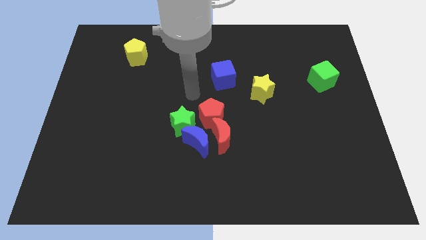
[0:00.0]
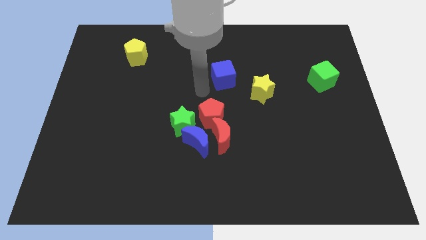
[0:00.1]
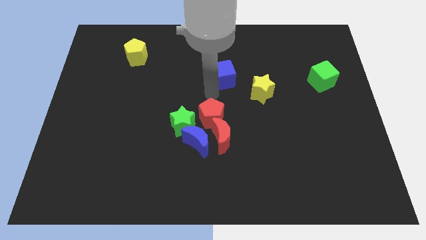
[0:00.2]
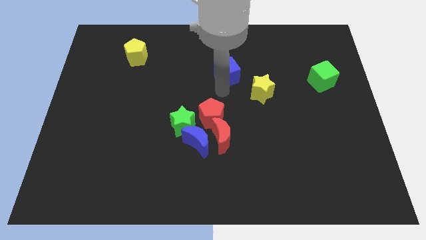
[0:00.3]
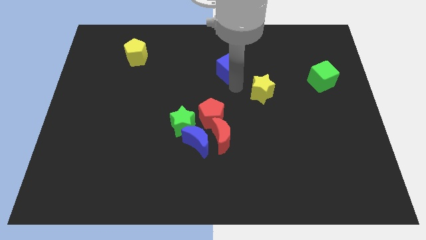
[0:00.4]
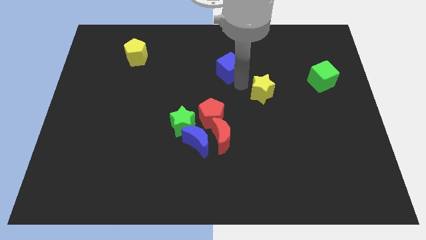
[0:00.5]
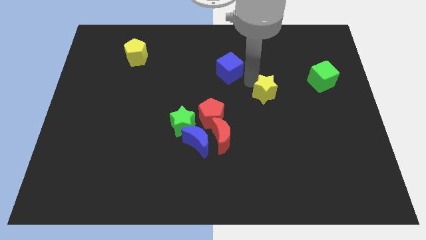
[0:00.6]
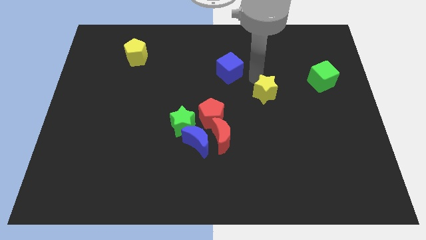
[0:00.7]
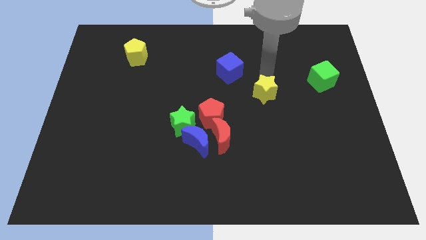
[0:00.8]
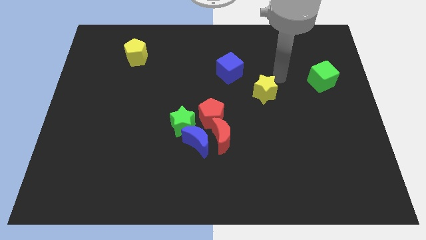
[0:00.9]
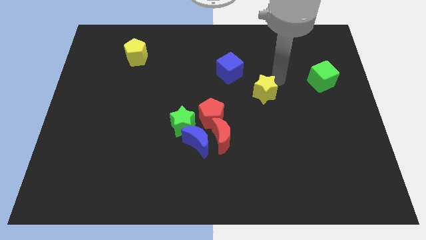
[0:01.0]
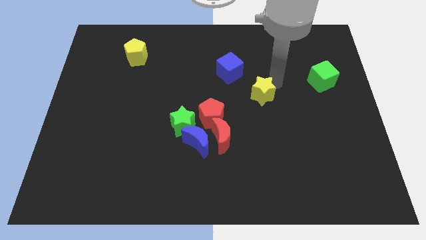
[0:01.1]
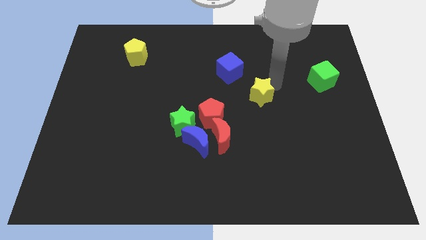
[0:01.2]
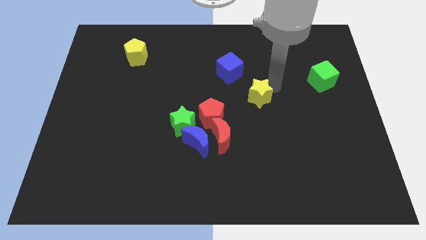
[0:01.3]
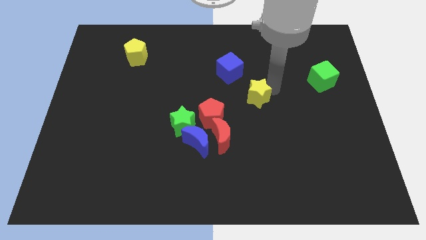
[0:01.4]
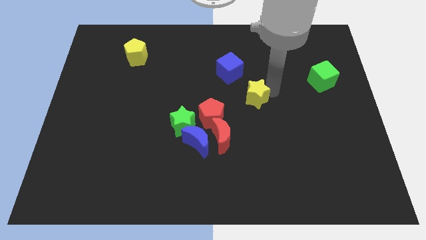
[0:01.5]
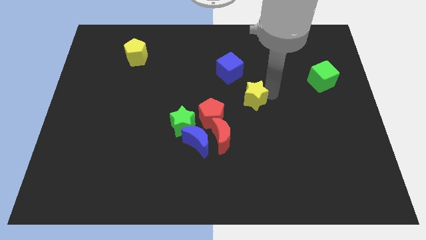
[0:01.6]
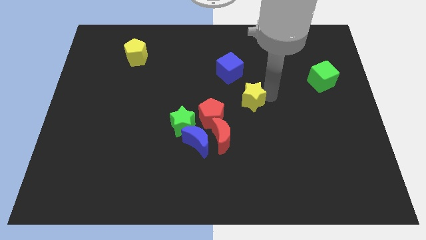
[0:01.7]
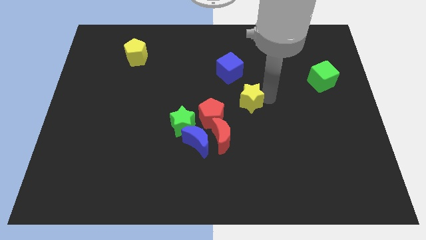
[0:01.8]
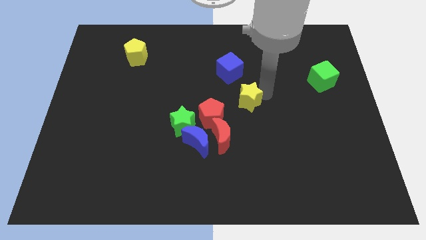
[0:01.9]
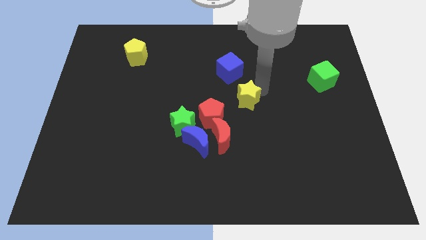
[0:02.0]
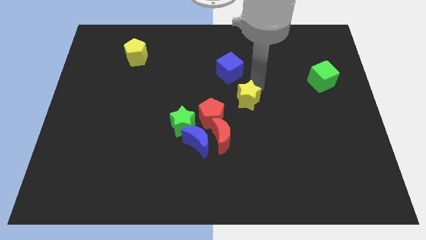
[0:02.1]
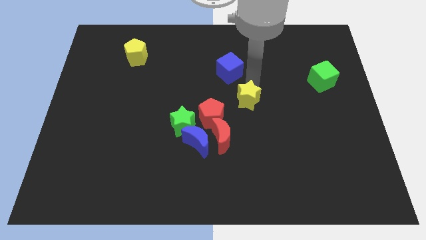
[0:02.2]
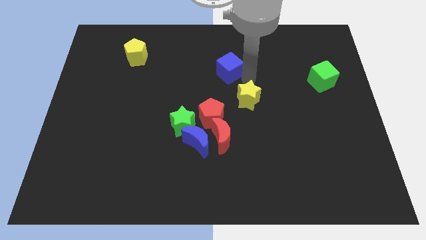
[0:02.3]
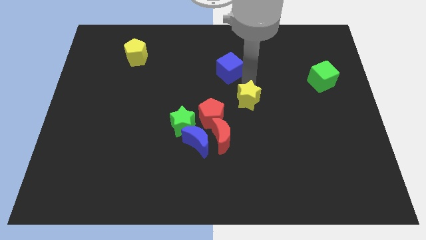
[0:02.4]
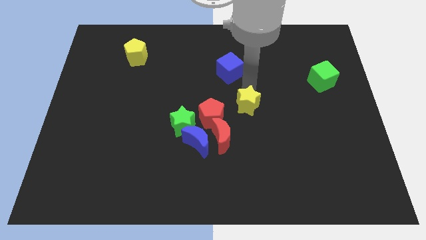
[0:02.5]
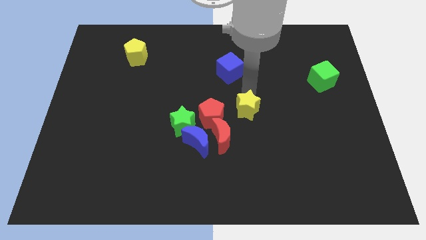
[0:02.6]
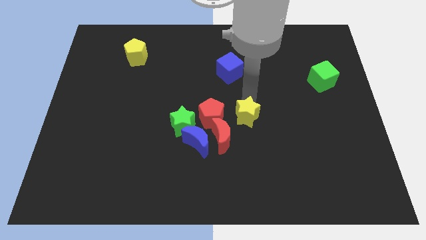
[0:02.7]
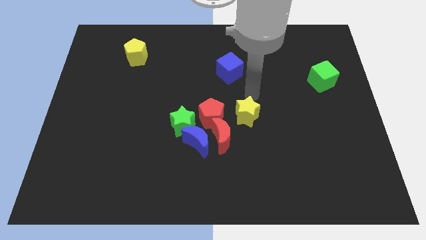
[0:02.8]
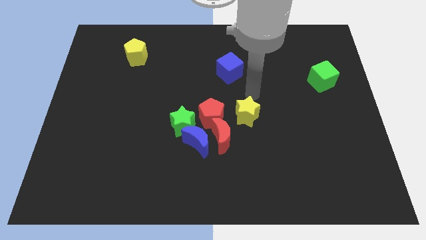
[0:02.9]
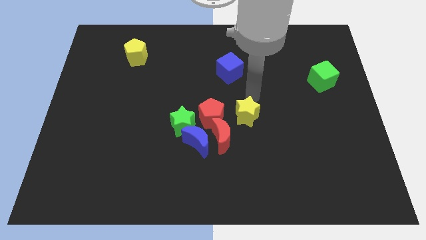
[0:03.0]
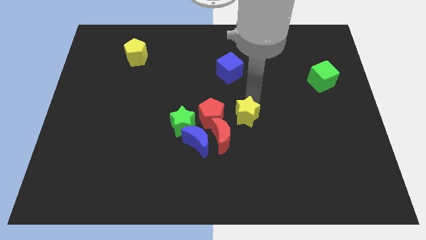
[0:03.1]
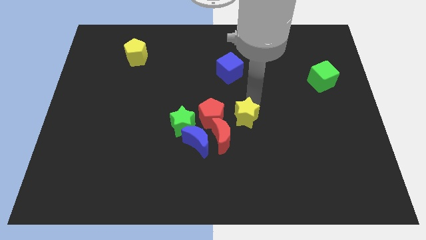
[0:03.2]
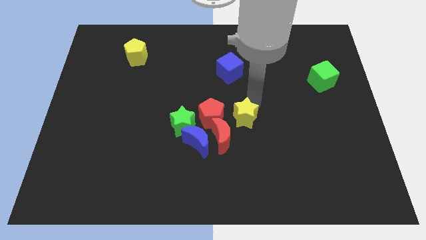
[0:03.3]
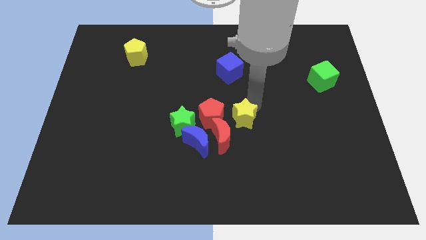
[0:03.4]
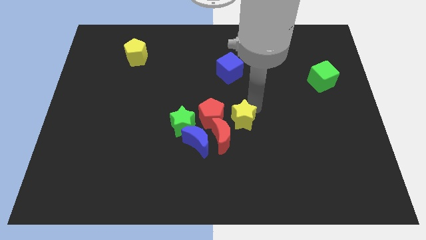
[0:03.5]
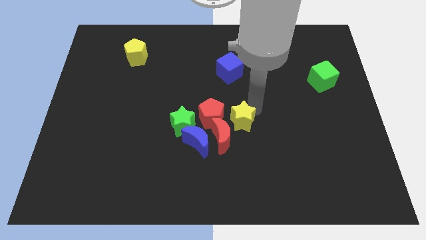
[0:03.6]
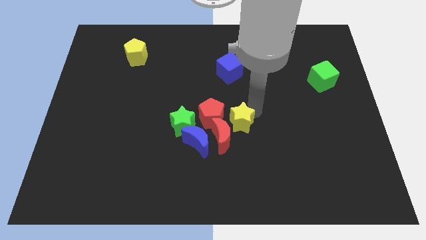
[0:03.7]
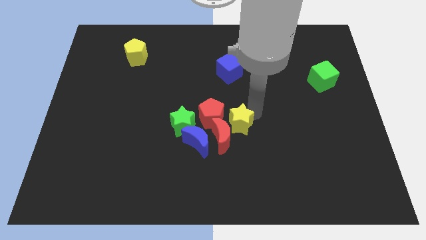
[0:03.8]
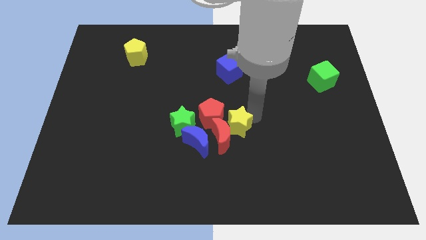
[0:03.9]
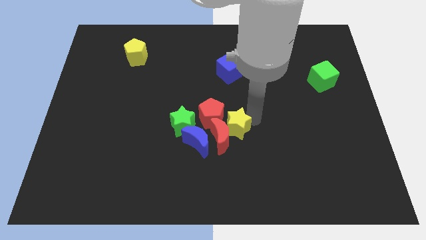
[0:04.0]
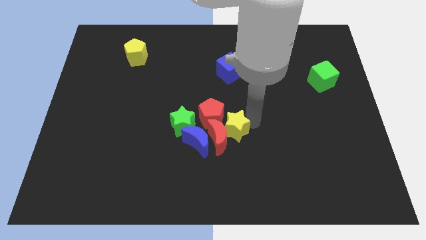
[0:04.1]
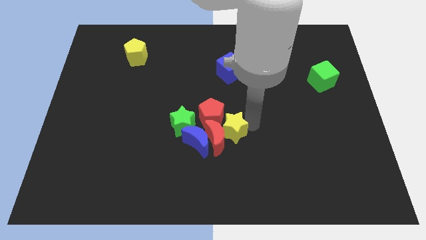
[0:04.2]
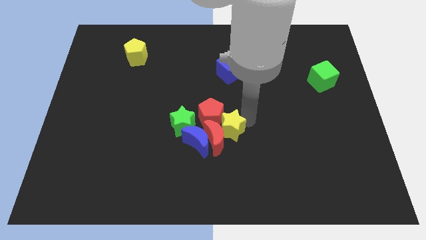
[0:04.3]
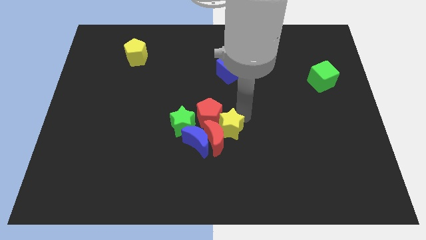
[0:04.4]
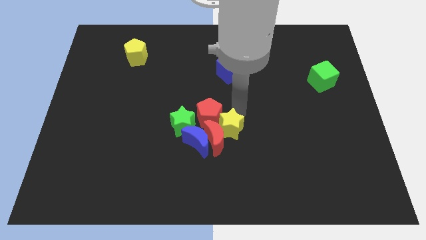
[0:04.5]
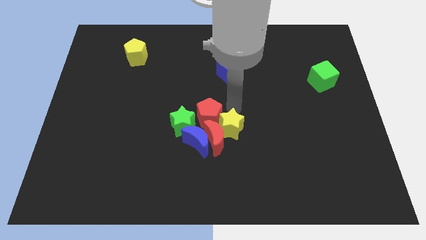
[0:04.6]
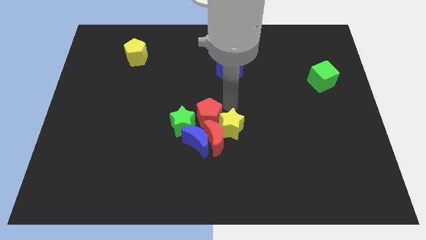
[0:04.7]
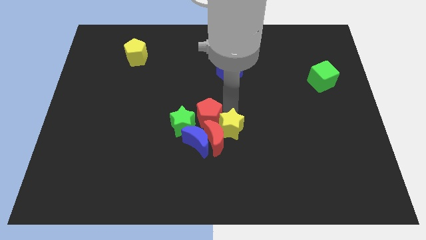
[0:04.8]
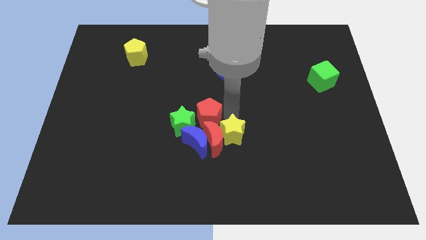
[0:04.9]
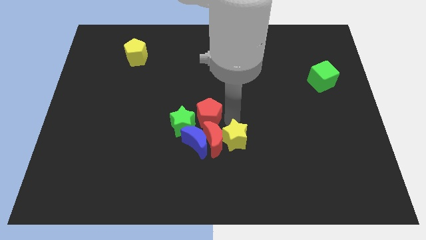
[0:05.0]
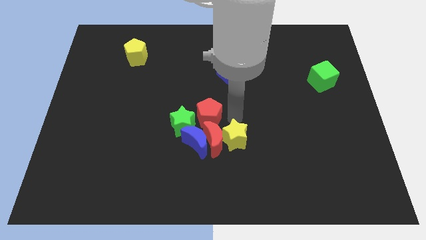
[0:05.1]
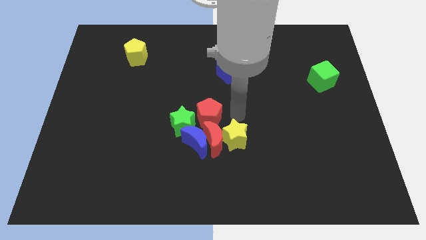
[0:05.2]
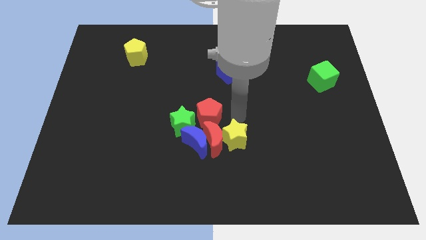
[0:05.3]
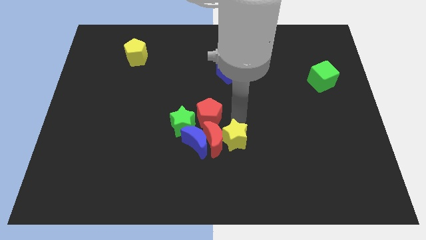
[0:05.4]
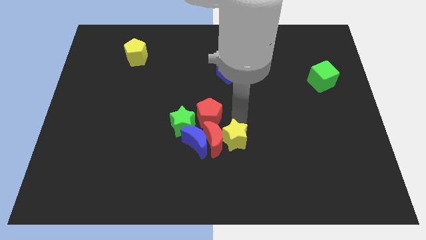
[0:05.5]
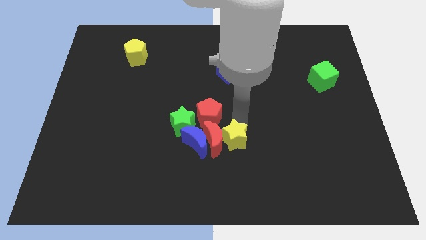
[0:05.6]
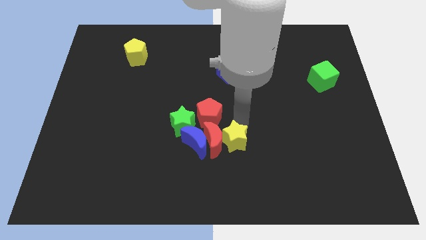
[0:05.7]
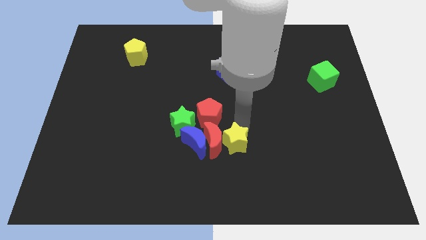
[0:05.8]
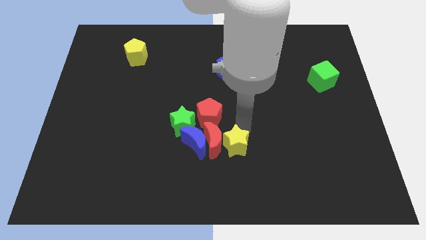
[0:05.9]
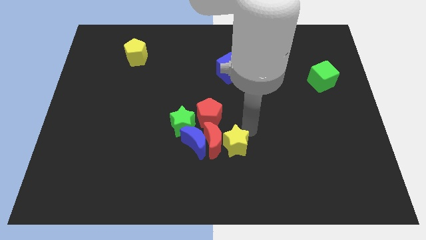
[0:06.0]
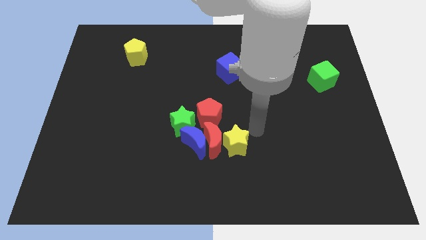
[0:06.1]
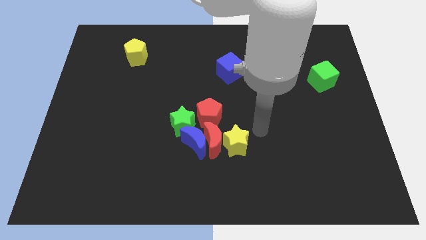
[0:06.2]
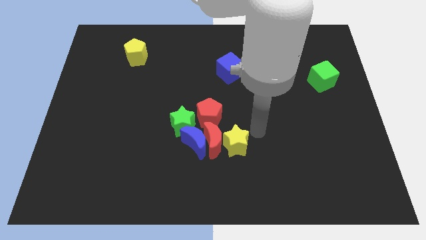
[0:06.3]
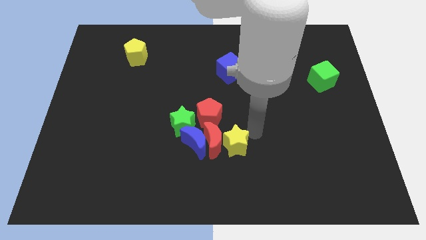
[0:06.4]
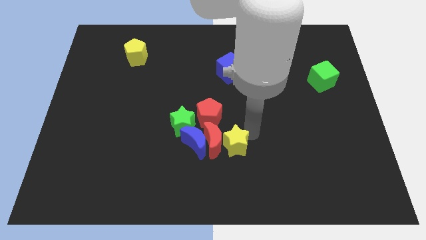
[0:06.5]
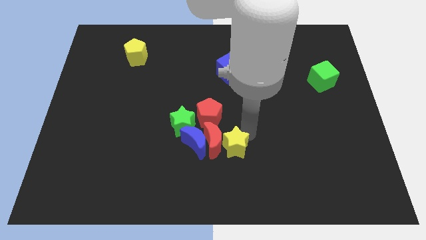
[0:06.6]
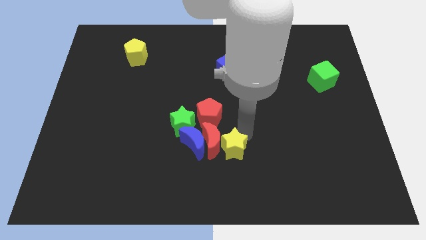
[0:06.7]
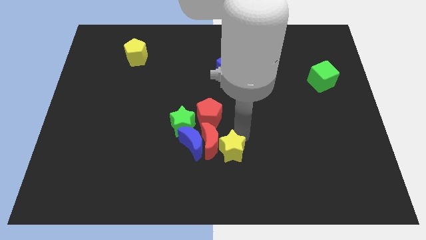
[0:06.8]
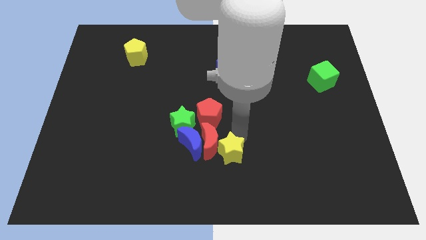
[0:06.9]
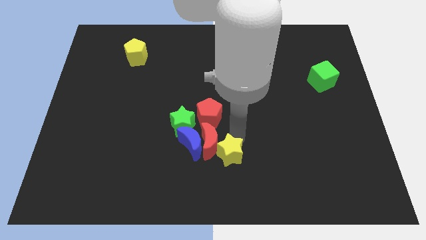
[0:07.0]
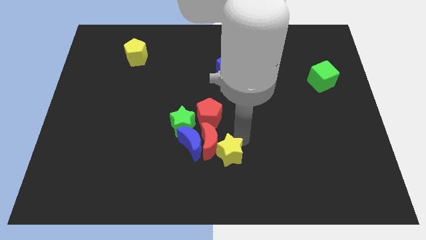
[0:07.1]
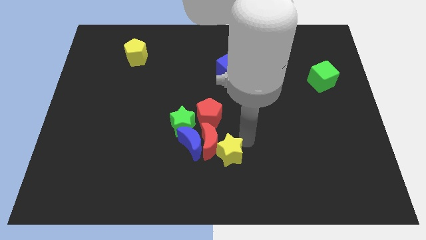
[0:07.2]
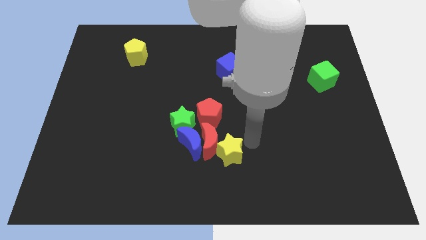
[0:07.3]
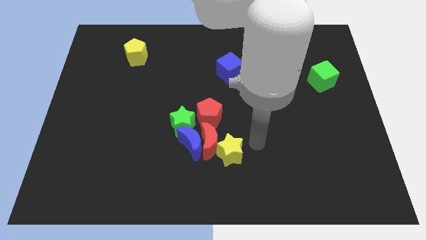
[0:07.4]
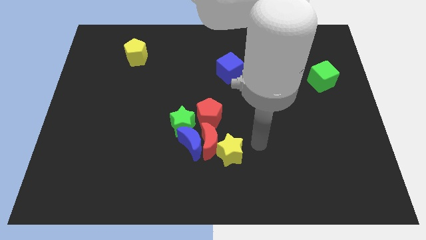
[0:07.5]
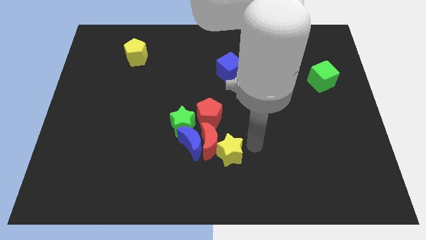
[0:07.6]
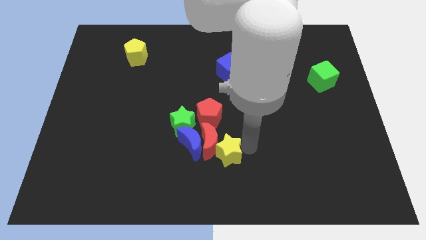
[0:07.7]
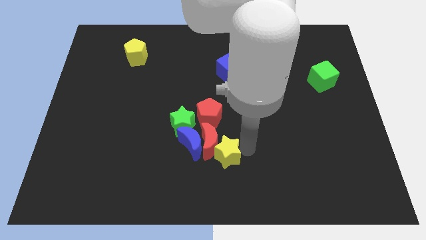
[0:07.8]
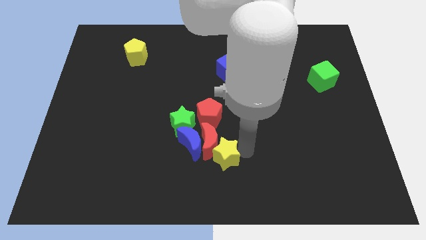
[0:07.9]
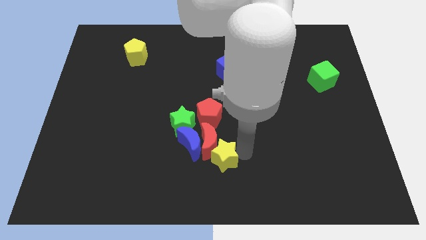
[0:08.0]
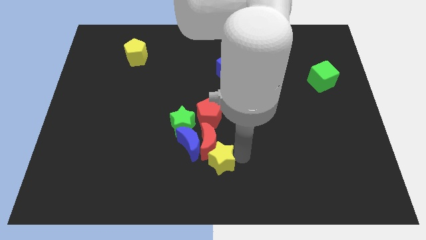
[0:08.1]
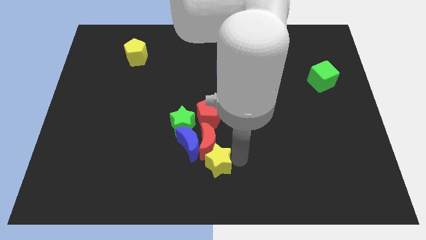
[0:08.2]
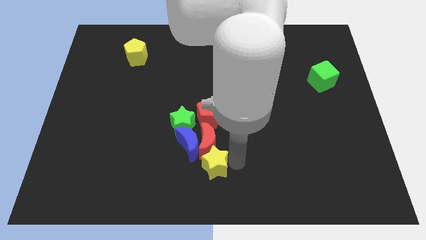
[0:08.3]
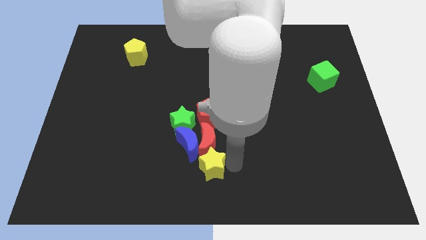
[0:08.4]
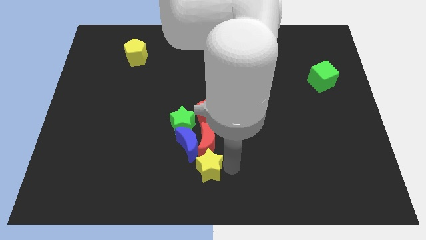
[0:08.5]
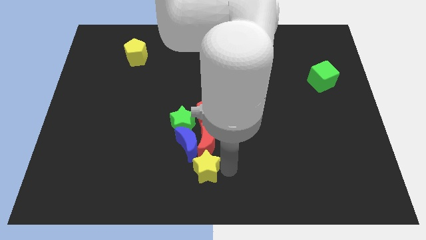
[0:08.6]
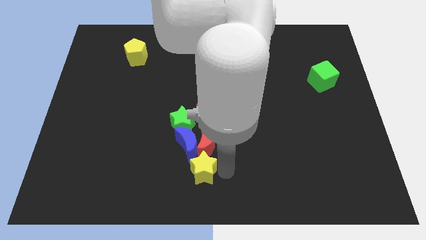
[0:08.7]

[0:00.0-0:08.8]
slide the yellow star to the bottom side of the green star
